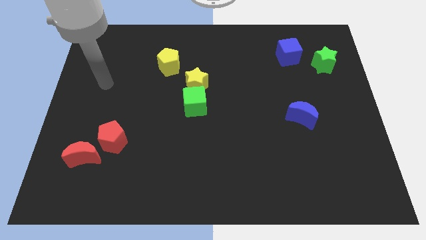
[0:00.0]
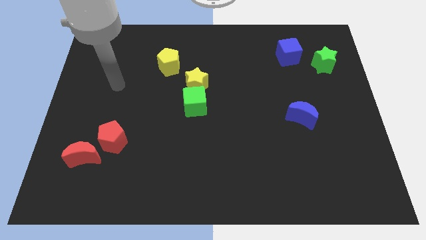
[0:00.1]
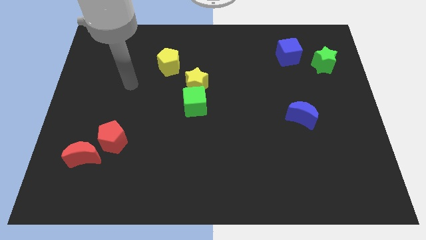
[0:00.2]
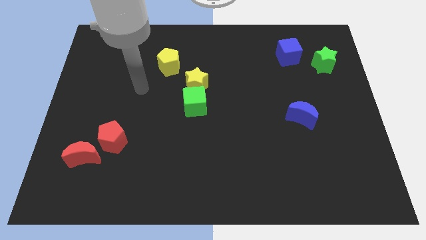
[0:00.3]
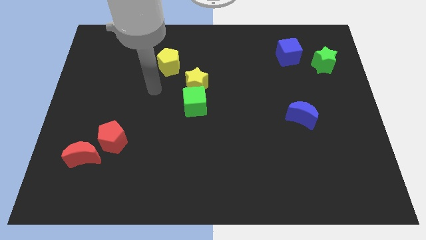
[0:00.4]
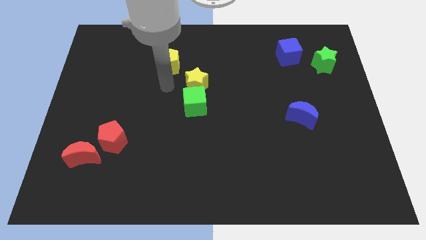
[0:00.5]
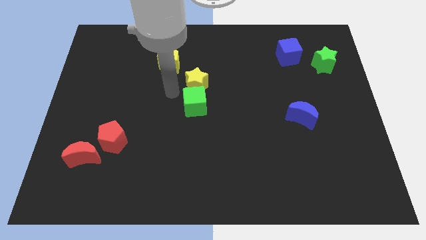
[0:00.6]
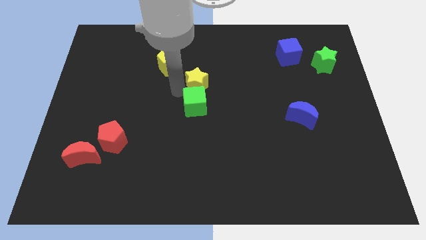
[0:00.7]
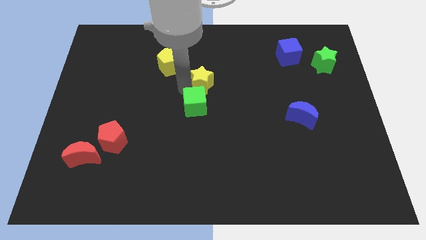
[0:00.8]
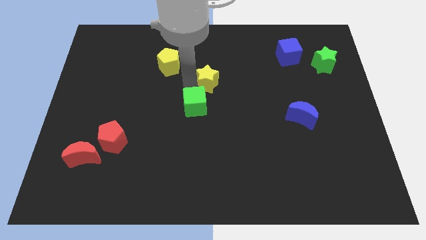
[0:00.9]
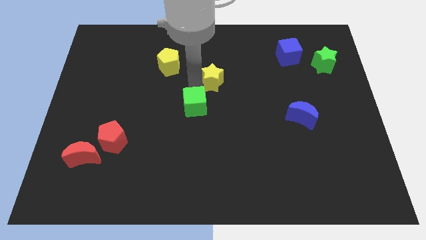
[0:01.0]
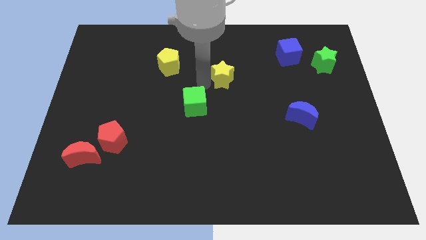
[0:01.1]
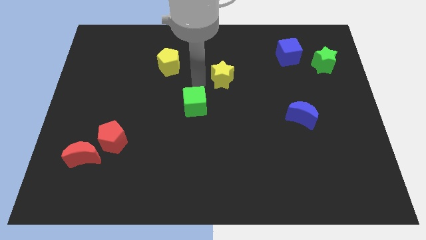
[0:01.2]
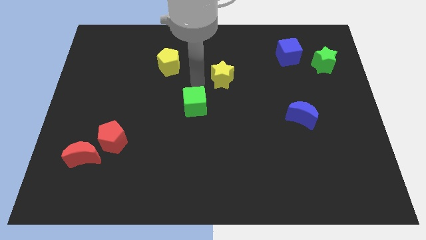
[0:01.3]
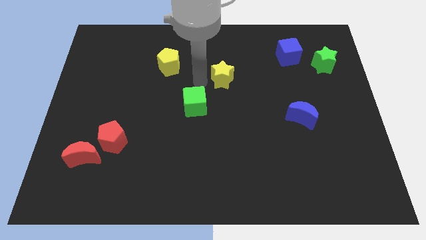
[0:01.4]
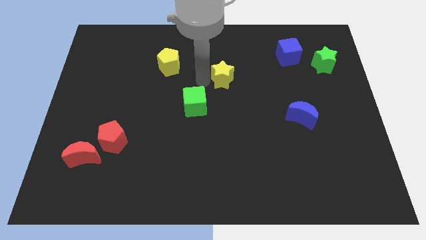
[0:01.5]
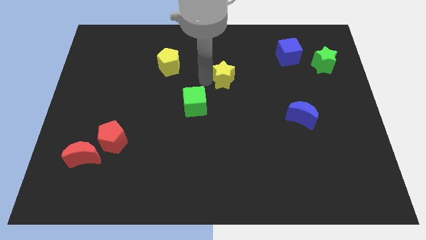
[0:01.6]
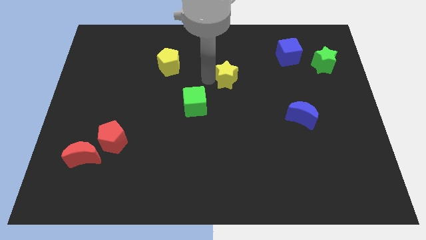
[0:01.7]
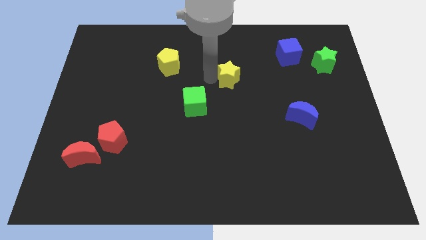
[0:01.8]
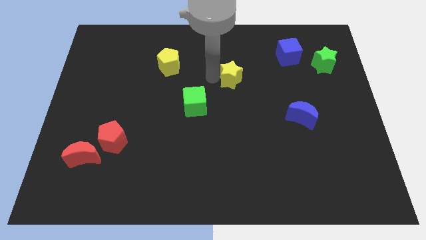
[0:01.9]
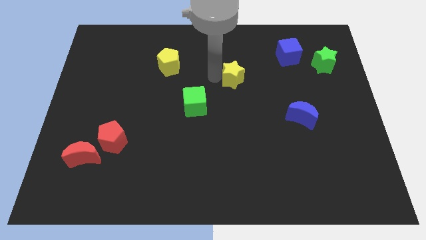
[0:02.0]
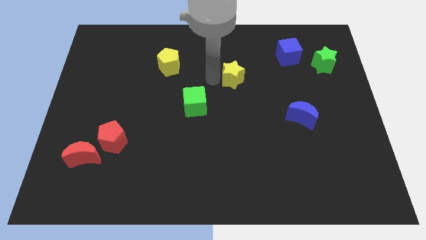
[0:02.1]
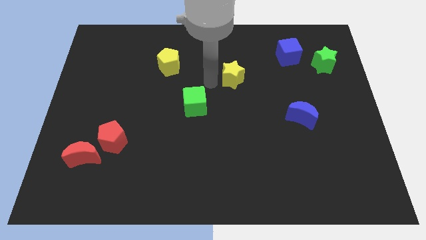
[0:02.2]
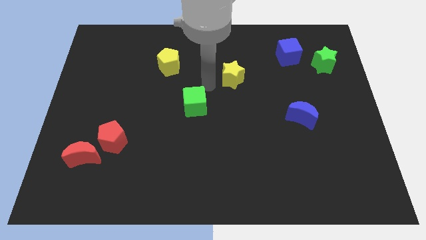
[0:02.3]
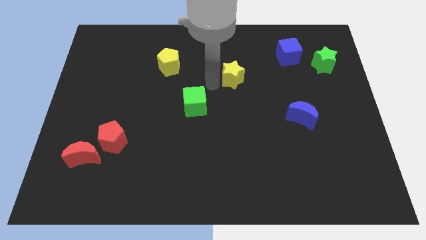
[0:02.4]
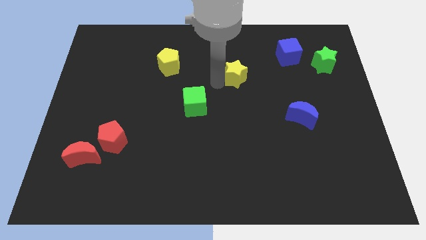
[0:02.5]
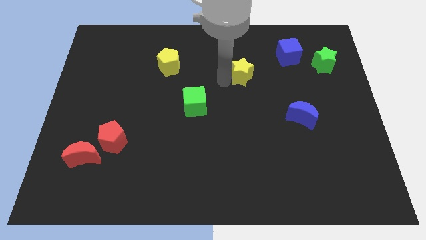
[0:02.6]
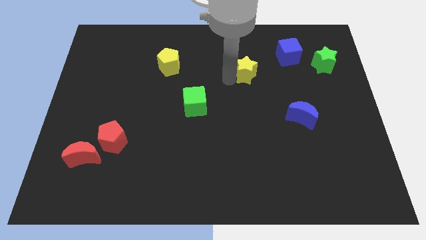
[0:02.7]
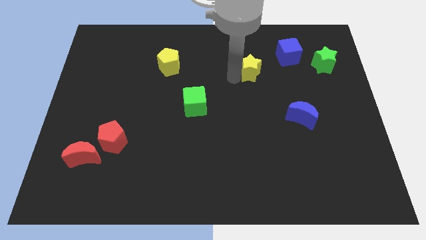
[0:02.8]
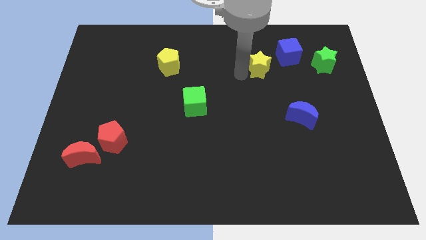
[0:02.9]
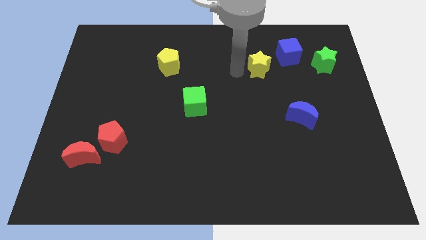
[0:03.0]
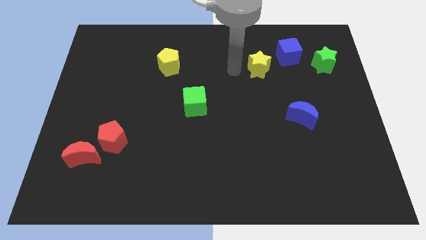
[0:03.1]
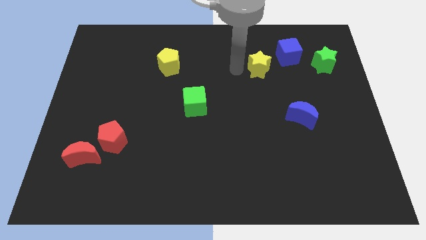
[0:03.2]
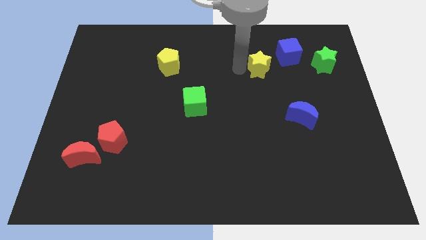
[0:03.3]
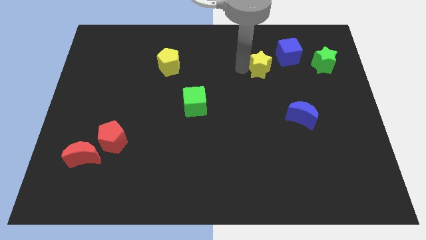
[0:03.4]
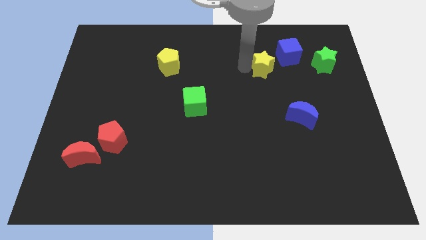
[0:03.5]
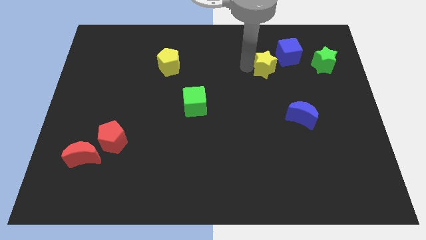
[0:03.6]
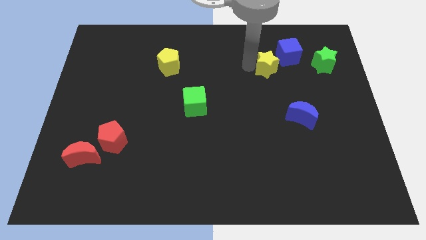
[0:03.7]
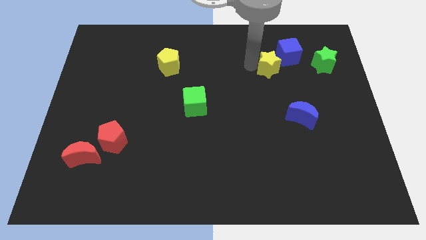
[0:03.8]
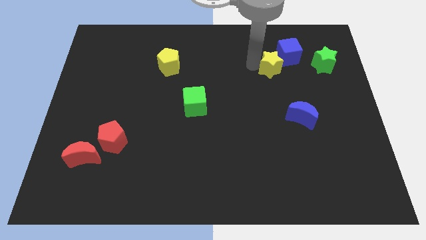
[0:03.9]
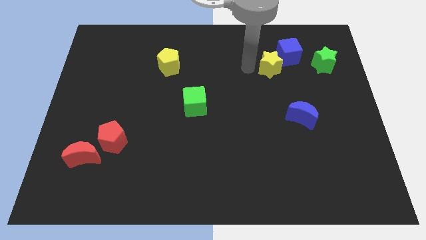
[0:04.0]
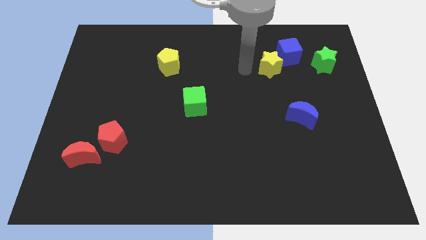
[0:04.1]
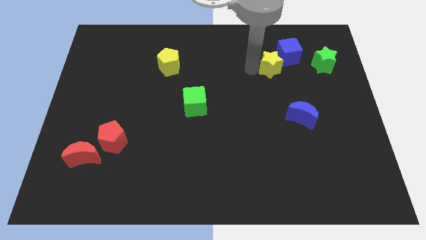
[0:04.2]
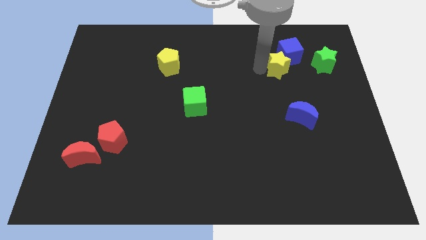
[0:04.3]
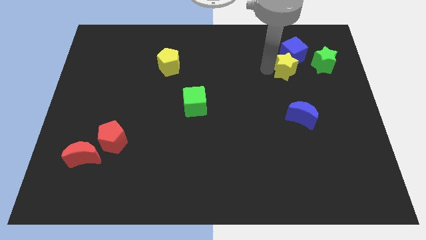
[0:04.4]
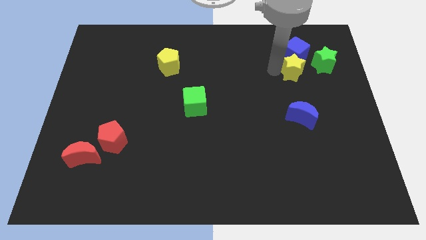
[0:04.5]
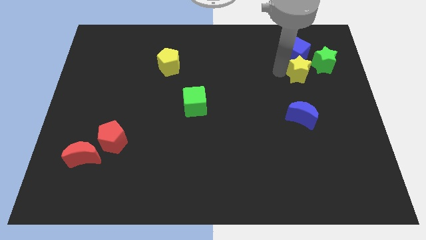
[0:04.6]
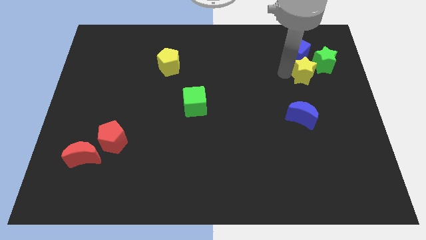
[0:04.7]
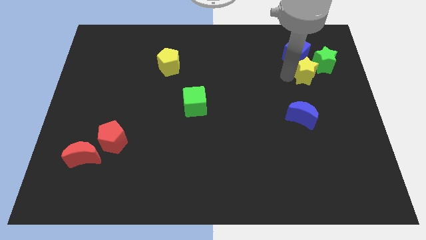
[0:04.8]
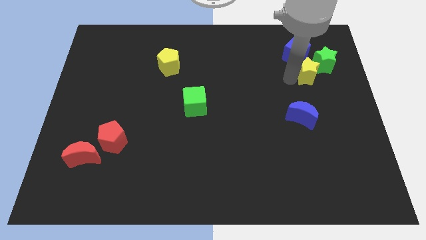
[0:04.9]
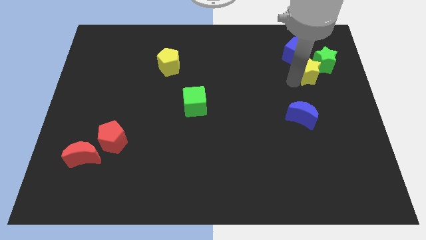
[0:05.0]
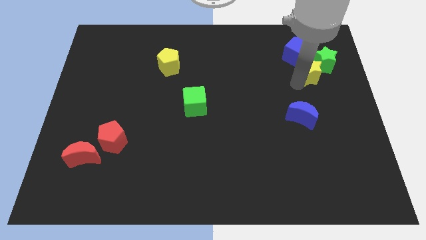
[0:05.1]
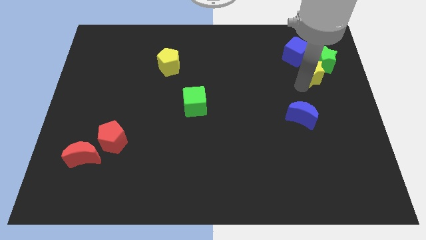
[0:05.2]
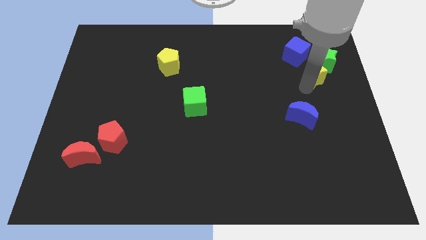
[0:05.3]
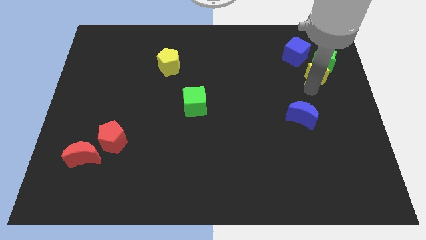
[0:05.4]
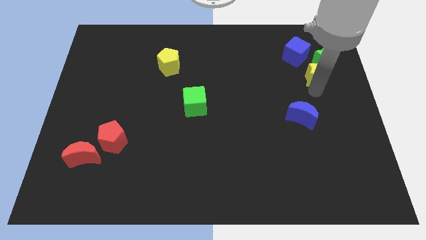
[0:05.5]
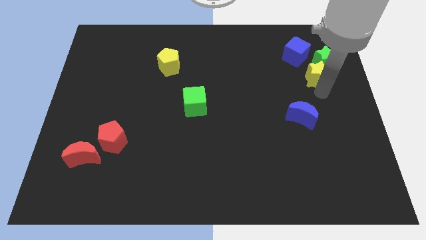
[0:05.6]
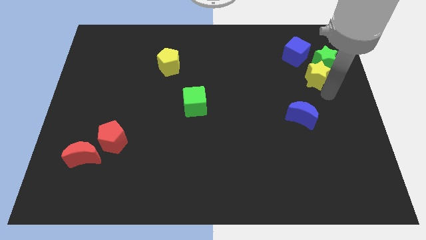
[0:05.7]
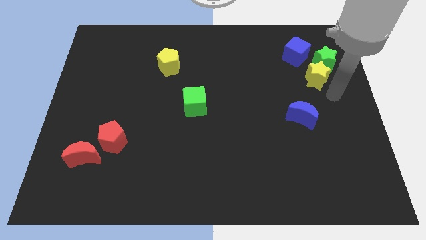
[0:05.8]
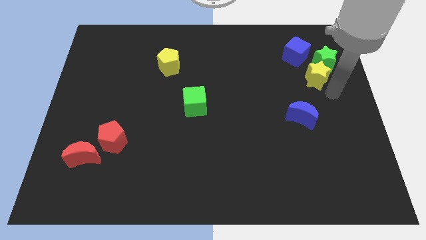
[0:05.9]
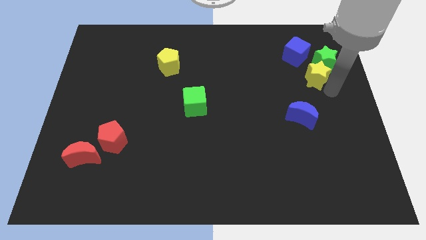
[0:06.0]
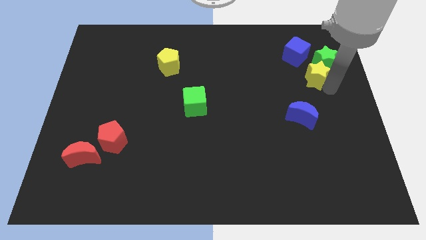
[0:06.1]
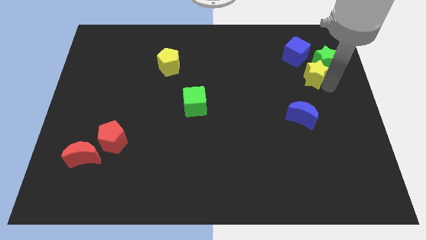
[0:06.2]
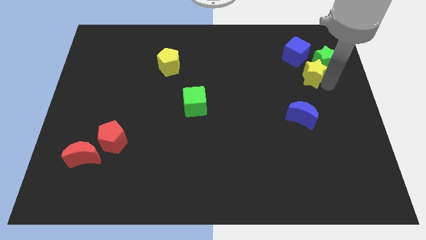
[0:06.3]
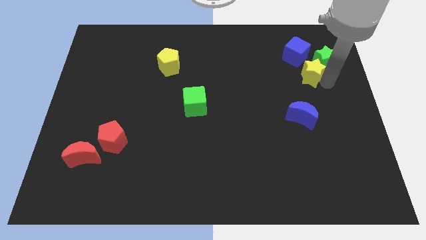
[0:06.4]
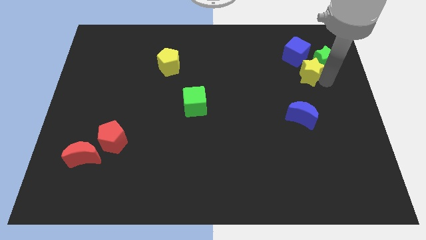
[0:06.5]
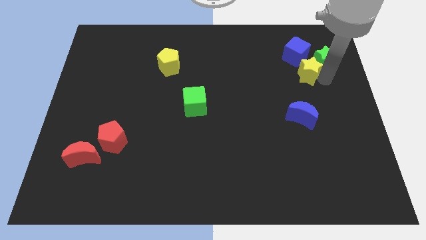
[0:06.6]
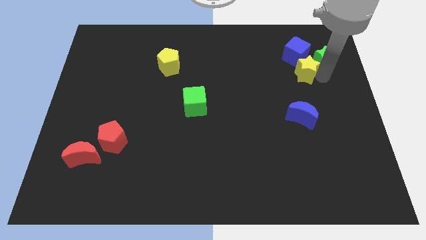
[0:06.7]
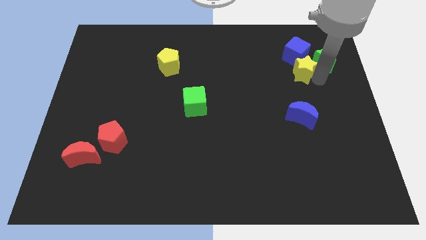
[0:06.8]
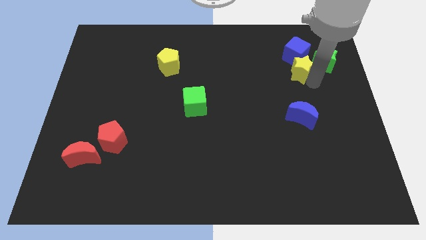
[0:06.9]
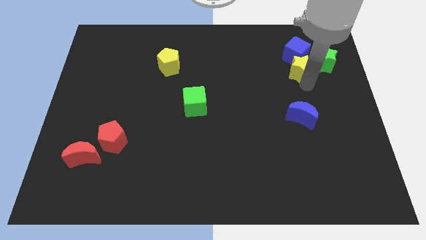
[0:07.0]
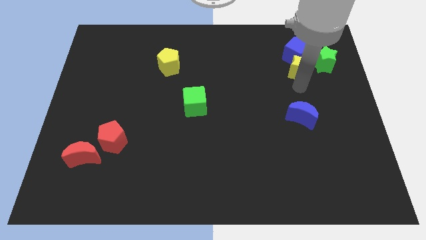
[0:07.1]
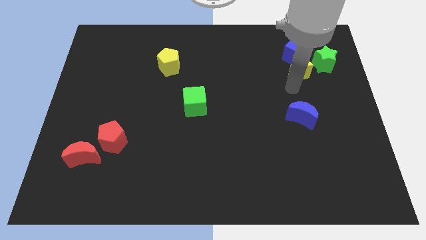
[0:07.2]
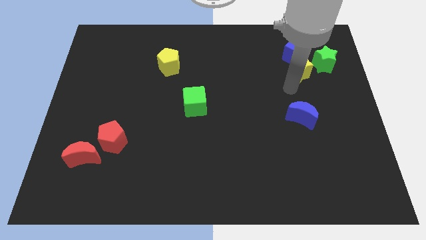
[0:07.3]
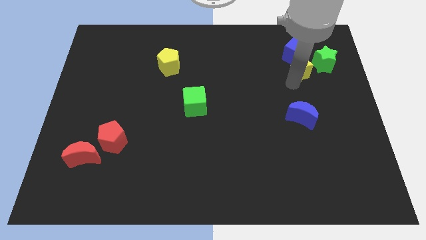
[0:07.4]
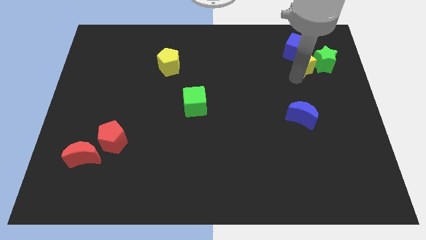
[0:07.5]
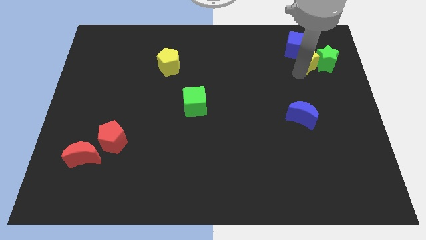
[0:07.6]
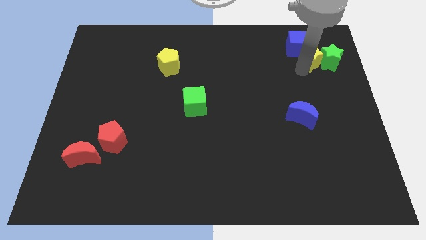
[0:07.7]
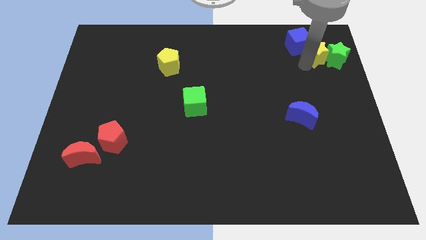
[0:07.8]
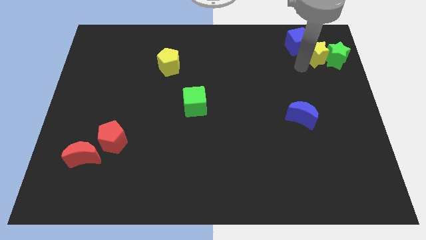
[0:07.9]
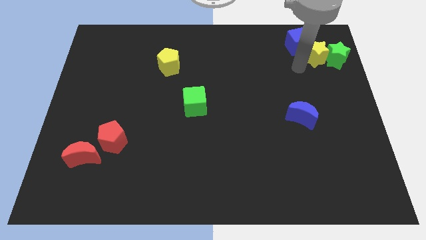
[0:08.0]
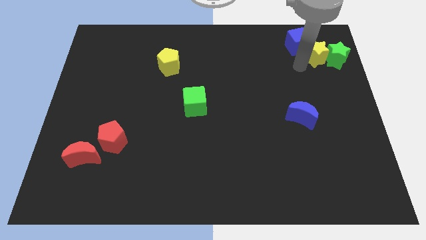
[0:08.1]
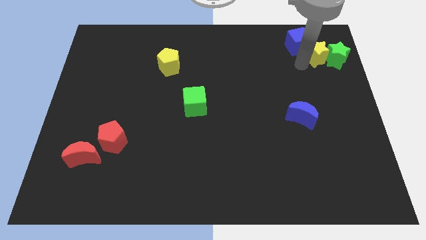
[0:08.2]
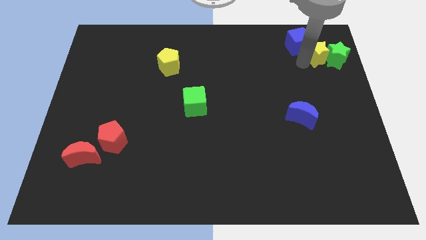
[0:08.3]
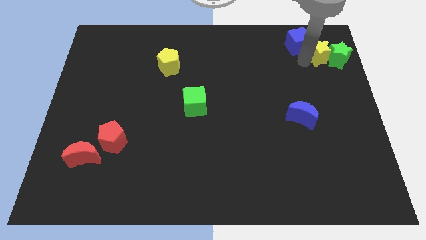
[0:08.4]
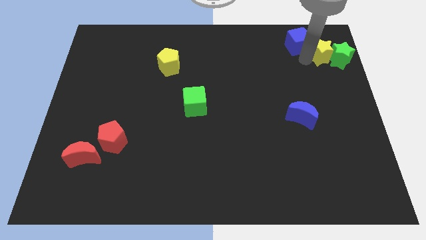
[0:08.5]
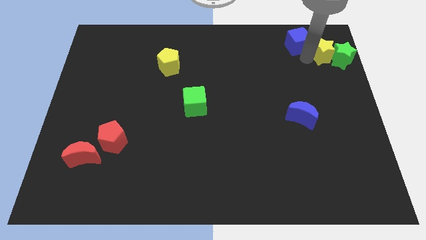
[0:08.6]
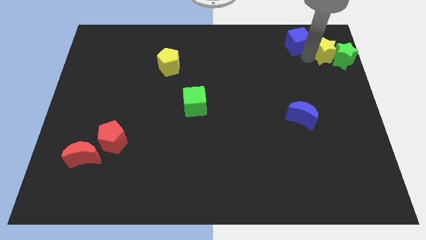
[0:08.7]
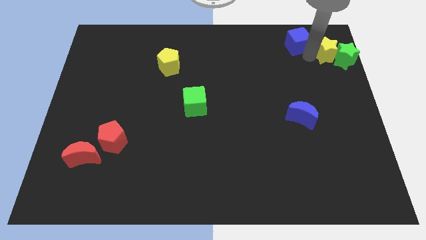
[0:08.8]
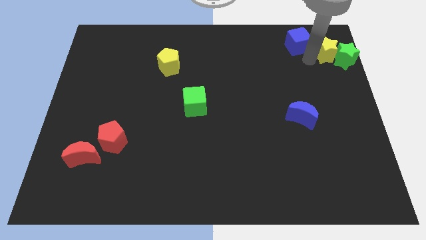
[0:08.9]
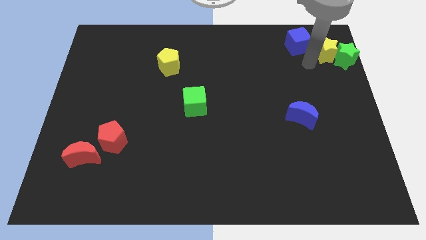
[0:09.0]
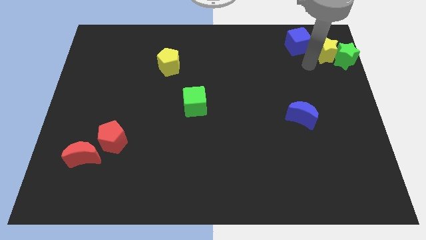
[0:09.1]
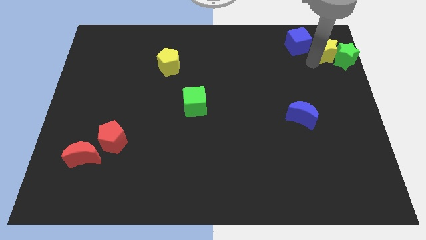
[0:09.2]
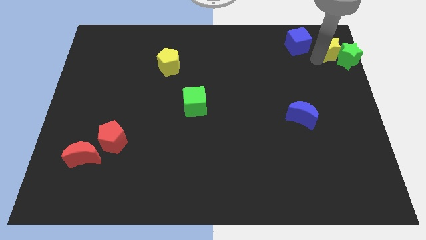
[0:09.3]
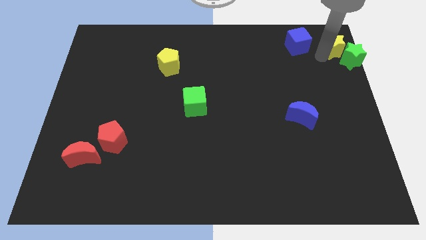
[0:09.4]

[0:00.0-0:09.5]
put the yellow star to the top right
